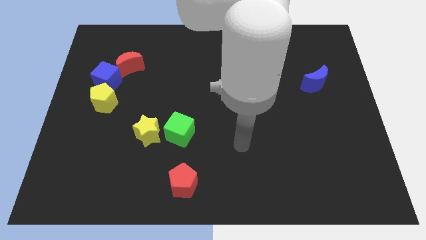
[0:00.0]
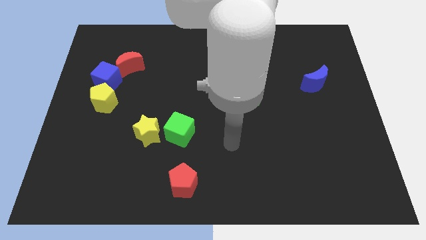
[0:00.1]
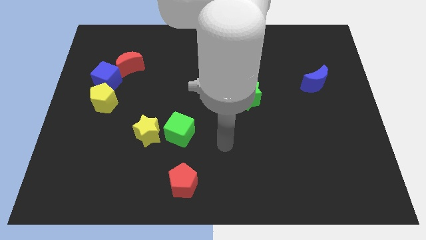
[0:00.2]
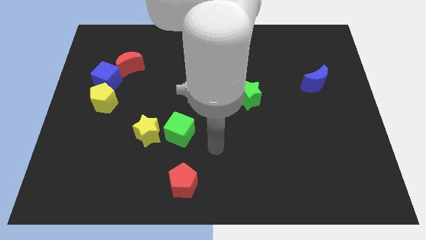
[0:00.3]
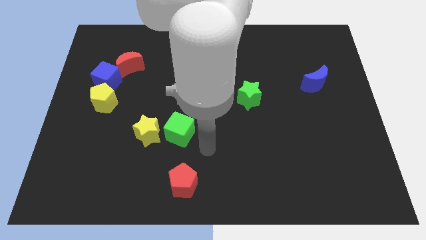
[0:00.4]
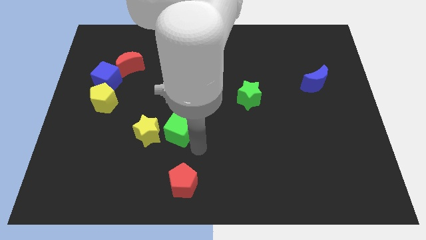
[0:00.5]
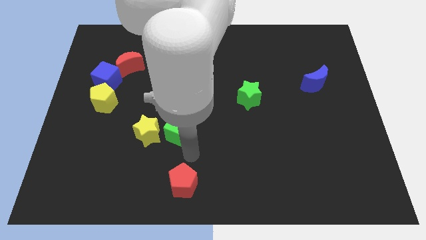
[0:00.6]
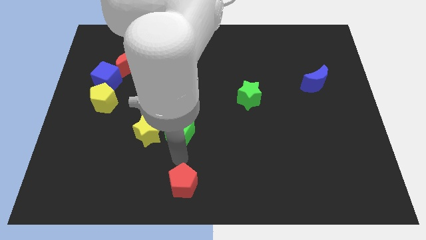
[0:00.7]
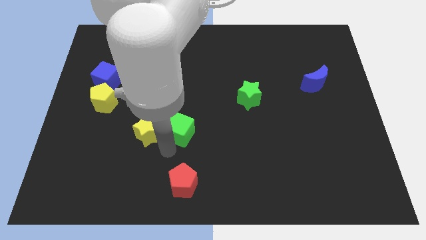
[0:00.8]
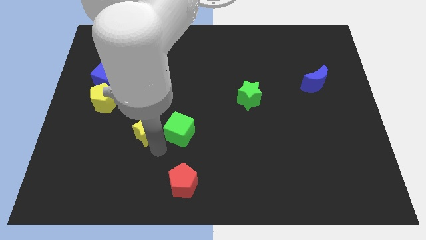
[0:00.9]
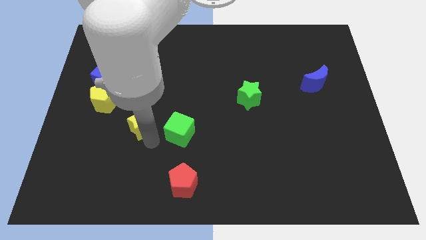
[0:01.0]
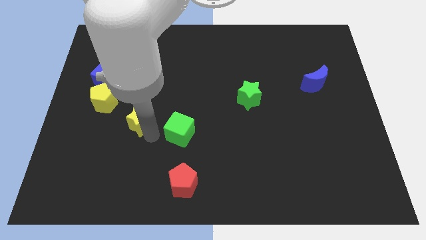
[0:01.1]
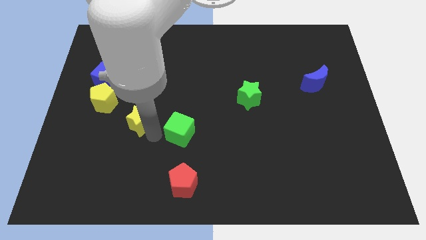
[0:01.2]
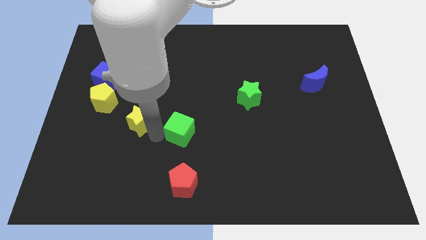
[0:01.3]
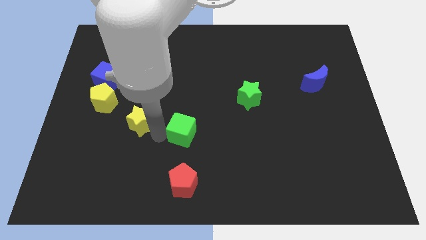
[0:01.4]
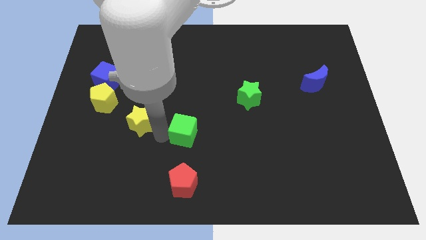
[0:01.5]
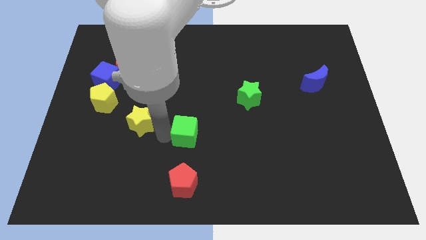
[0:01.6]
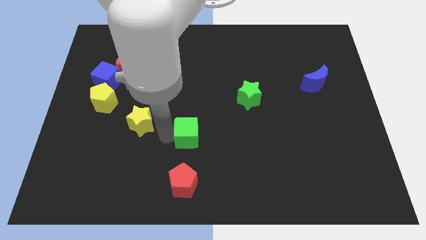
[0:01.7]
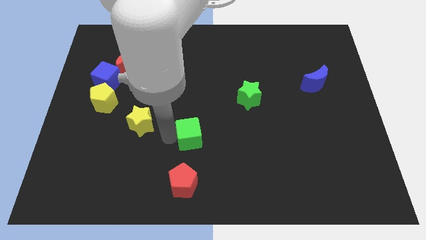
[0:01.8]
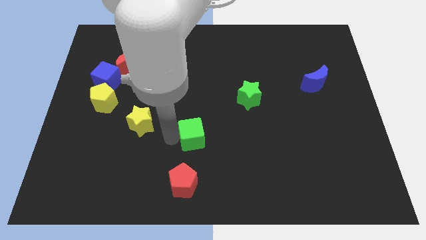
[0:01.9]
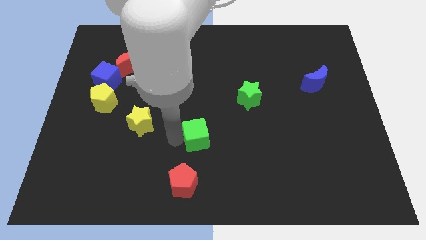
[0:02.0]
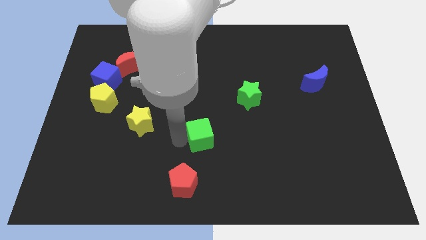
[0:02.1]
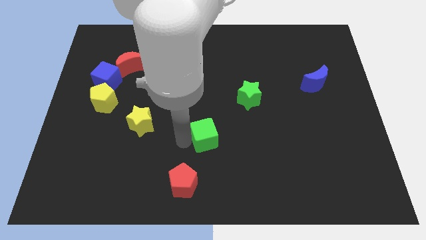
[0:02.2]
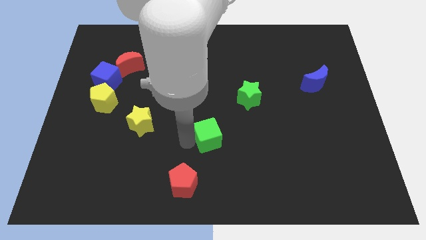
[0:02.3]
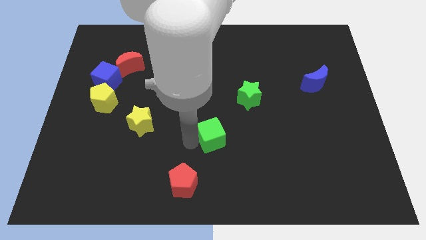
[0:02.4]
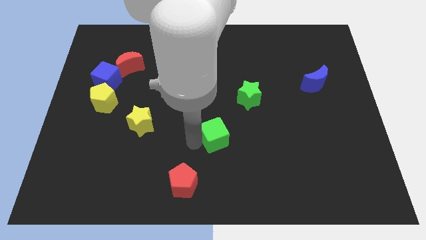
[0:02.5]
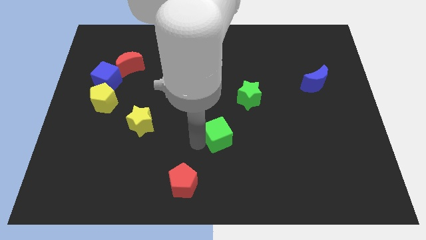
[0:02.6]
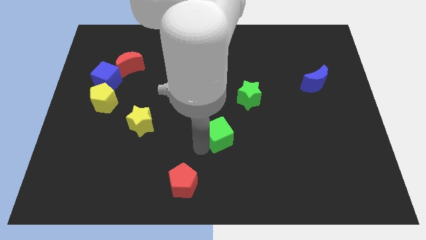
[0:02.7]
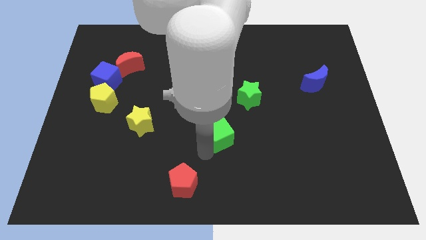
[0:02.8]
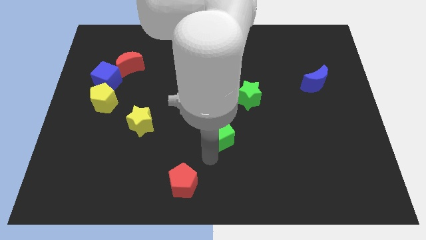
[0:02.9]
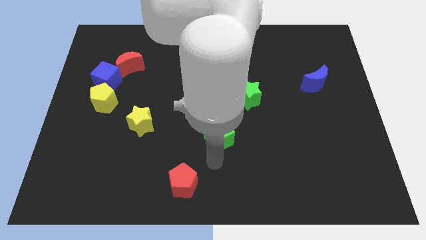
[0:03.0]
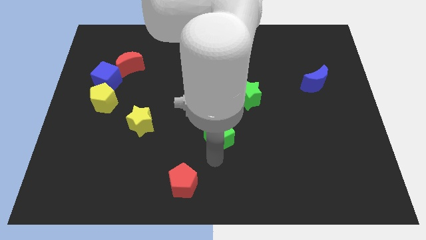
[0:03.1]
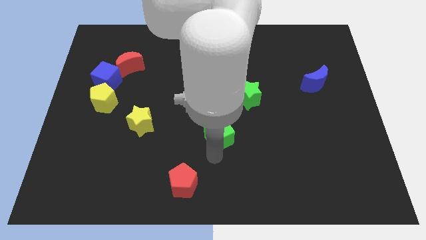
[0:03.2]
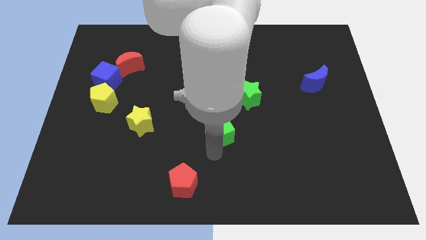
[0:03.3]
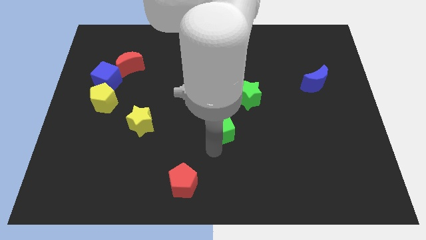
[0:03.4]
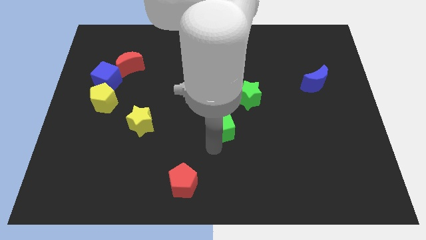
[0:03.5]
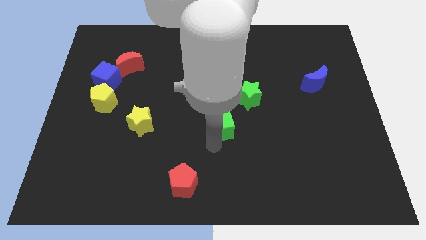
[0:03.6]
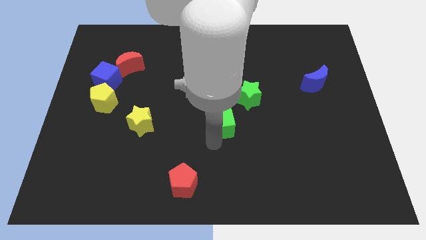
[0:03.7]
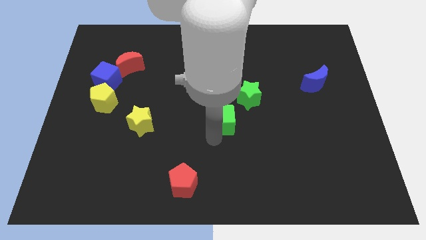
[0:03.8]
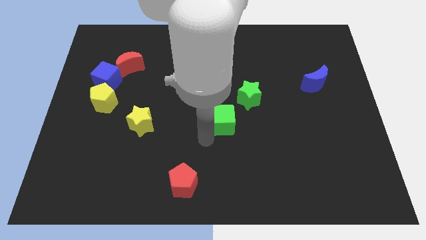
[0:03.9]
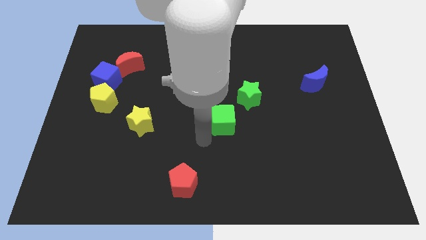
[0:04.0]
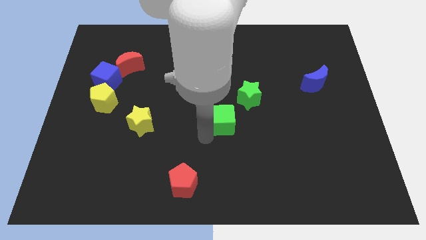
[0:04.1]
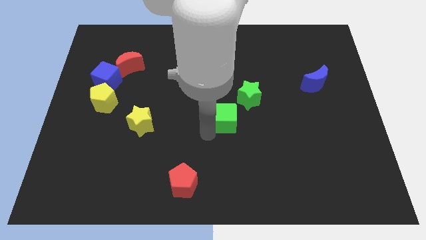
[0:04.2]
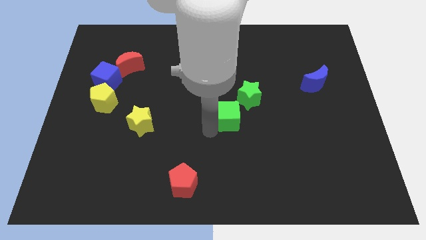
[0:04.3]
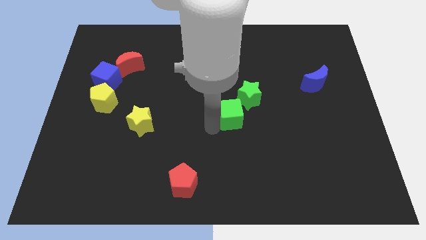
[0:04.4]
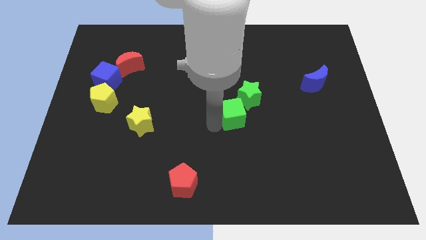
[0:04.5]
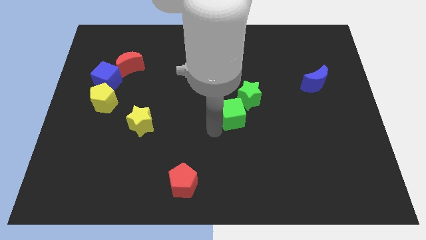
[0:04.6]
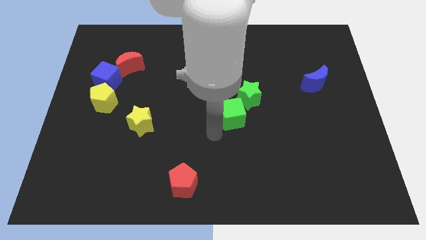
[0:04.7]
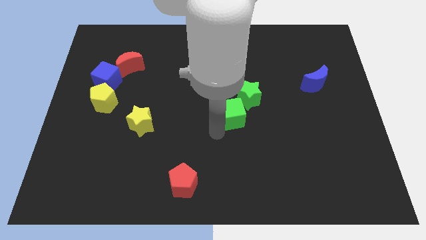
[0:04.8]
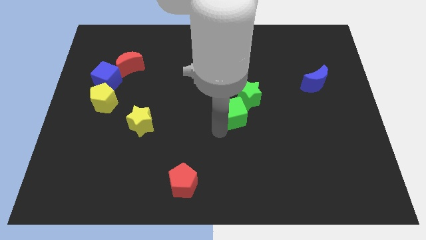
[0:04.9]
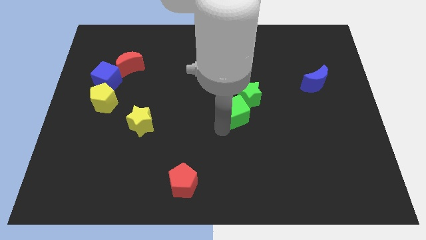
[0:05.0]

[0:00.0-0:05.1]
slide the green cube to the green star

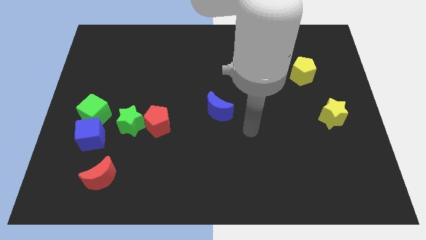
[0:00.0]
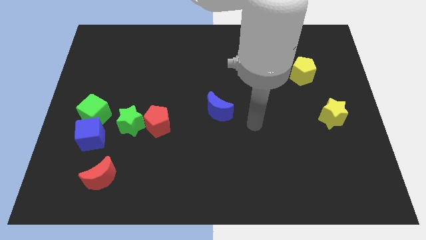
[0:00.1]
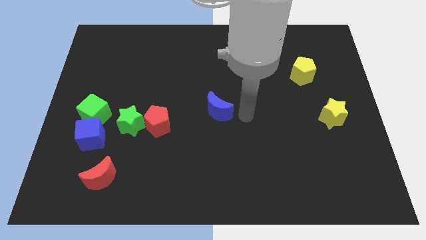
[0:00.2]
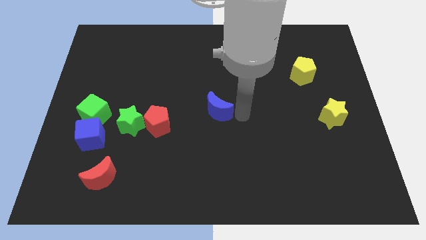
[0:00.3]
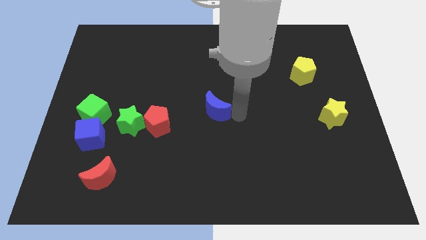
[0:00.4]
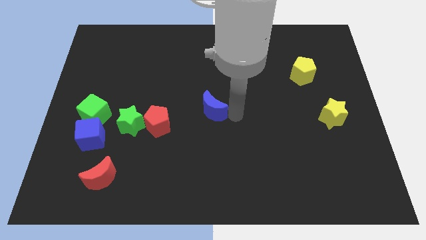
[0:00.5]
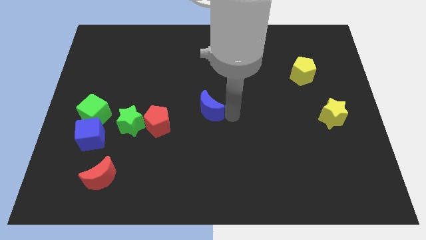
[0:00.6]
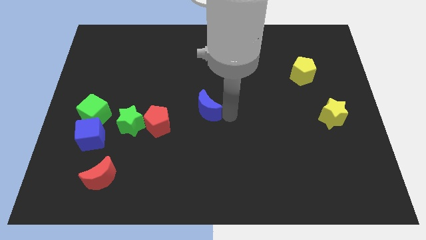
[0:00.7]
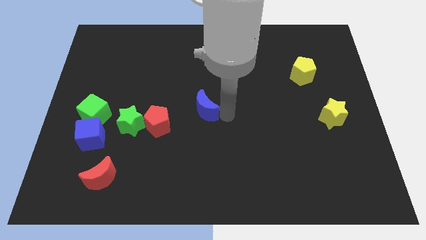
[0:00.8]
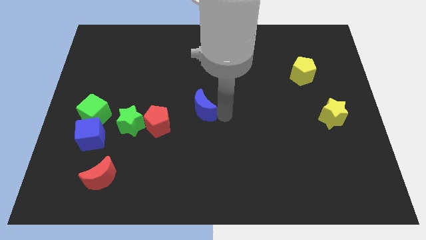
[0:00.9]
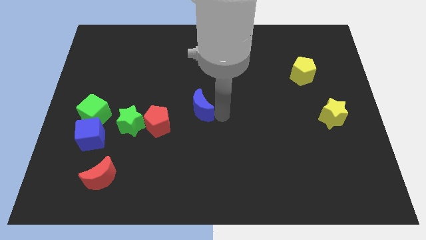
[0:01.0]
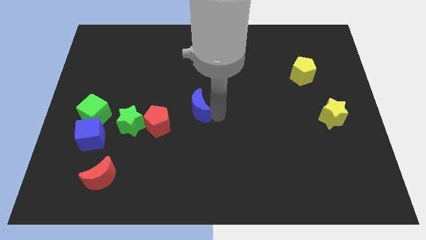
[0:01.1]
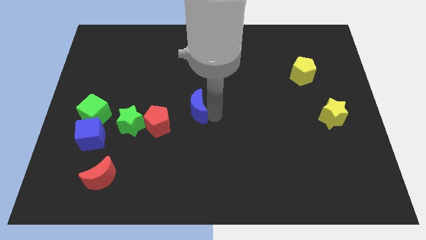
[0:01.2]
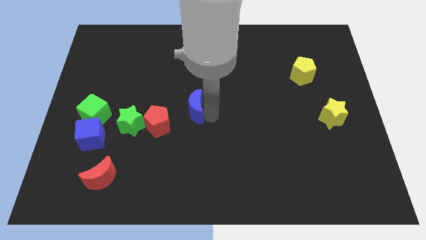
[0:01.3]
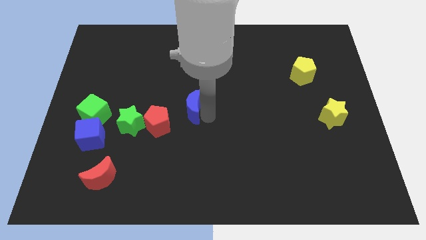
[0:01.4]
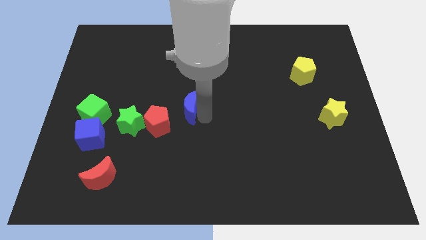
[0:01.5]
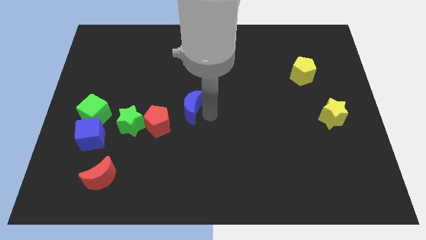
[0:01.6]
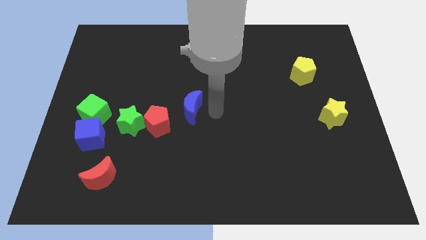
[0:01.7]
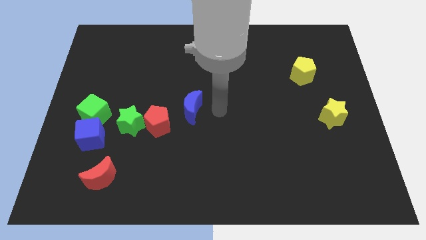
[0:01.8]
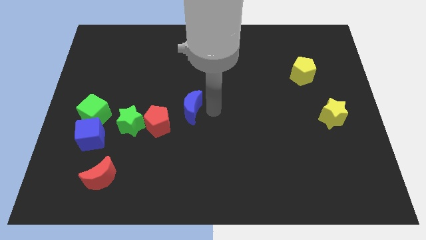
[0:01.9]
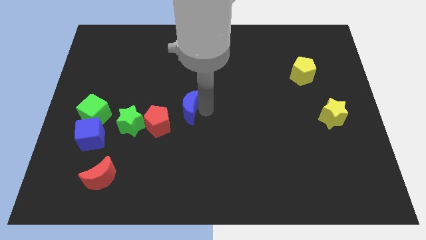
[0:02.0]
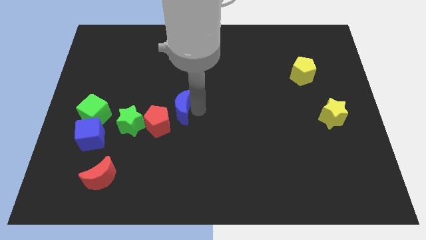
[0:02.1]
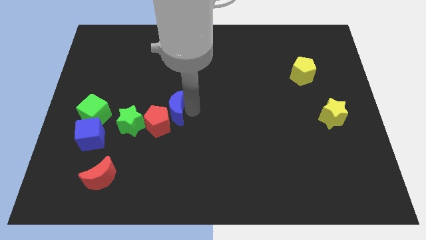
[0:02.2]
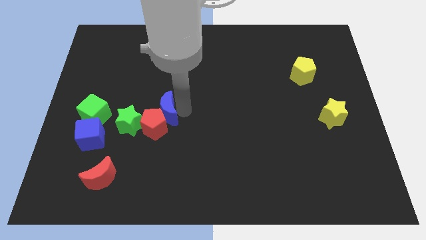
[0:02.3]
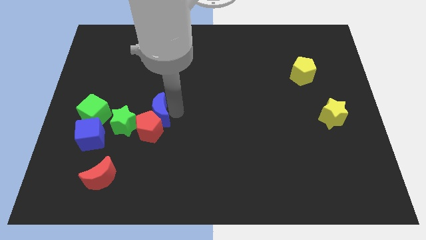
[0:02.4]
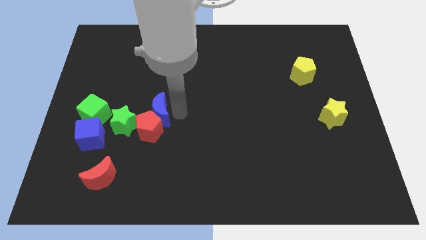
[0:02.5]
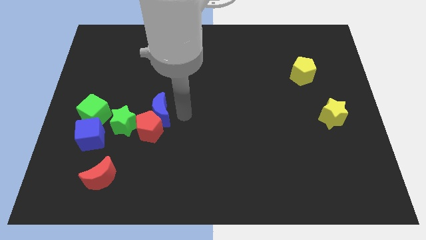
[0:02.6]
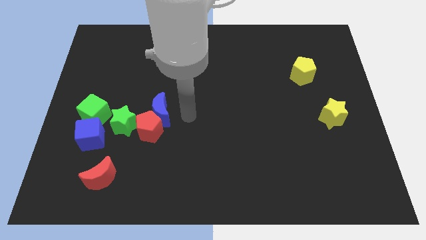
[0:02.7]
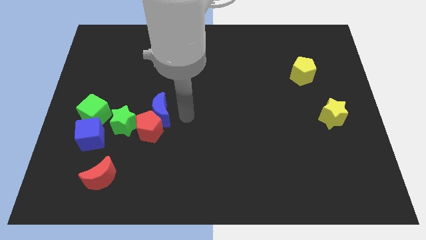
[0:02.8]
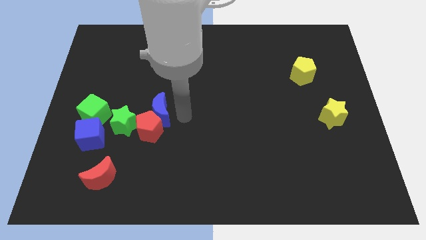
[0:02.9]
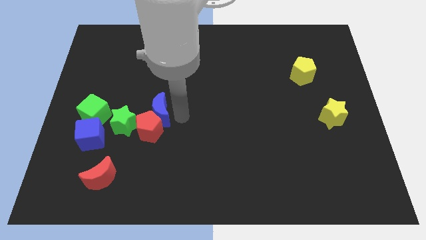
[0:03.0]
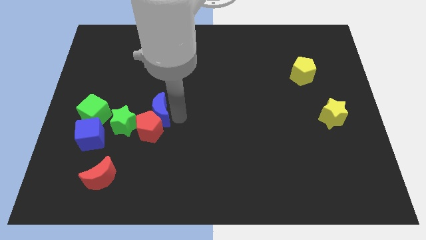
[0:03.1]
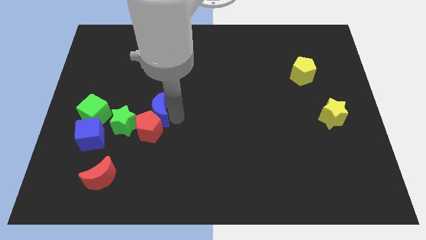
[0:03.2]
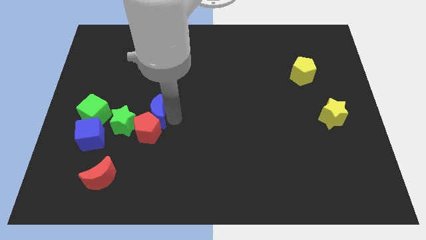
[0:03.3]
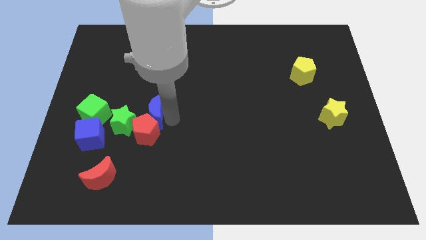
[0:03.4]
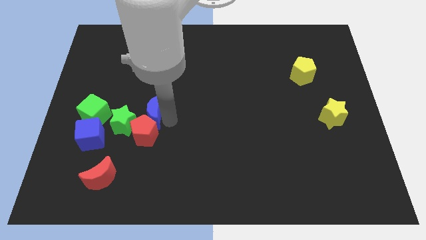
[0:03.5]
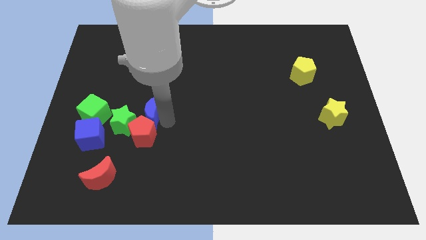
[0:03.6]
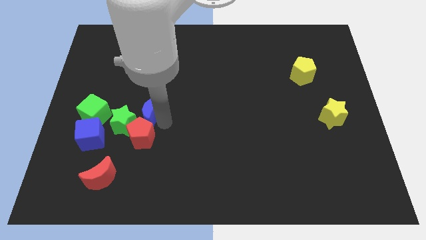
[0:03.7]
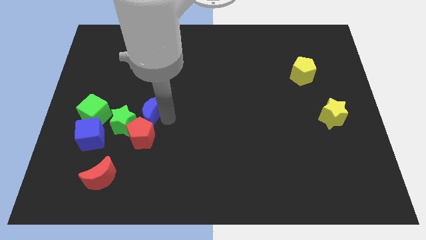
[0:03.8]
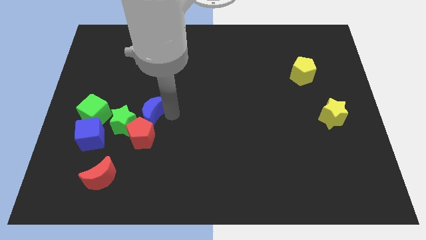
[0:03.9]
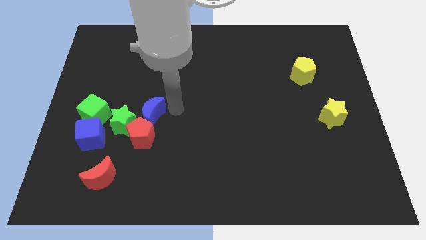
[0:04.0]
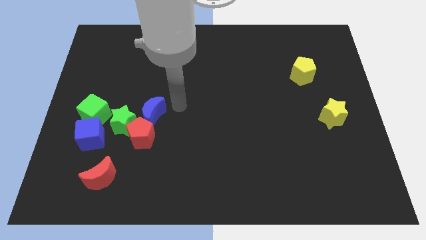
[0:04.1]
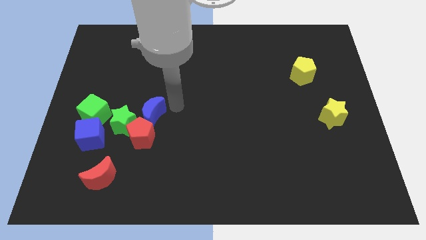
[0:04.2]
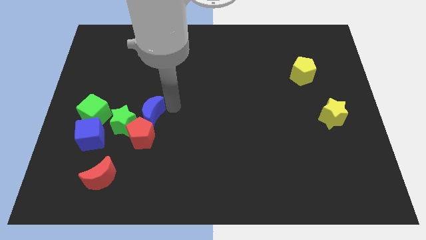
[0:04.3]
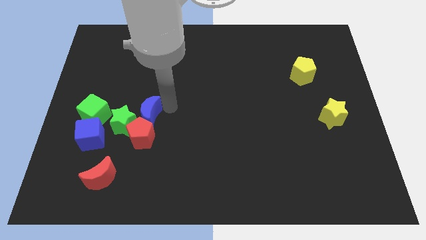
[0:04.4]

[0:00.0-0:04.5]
slide the blue moon to the green star
